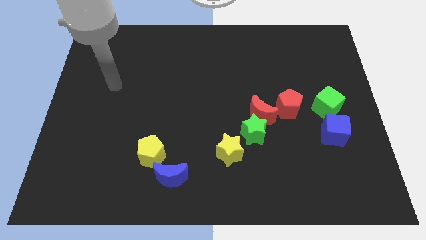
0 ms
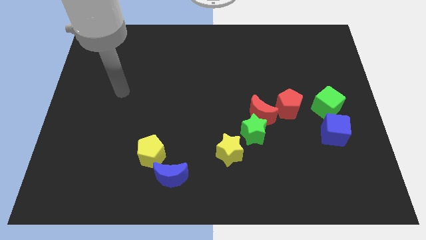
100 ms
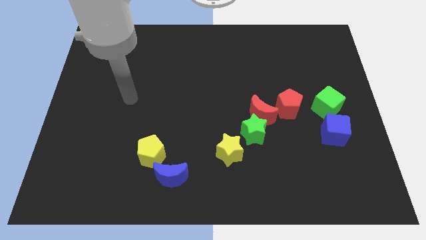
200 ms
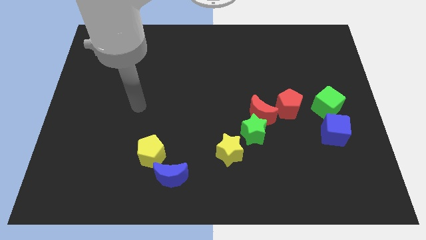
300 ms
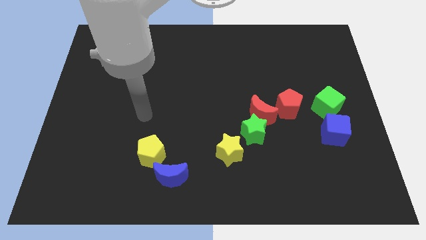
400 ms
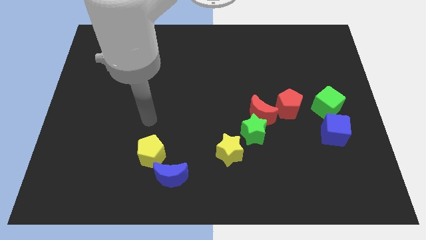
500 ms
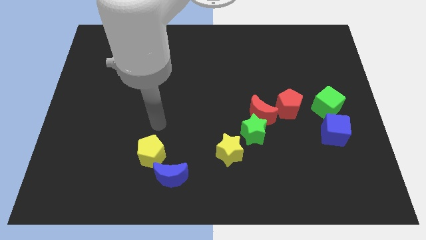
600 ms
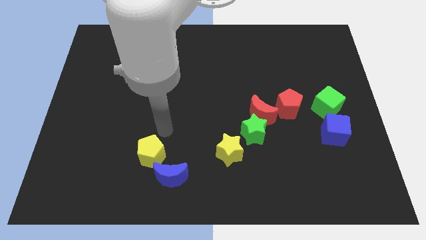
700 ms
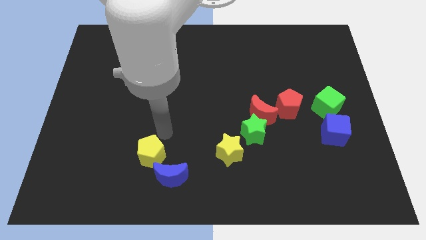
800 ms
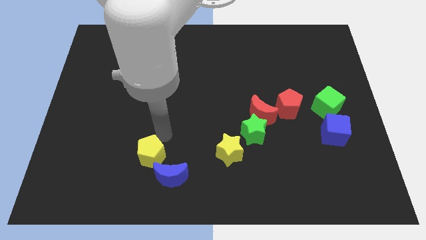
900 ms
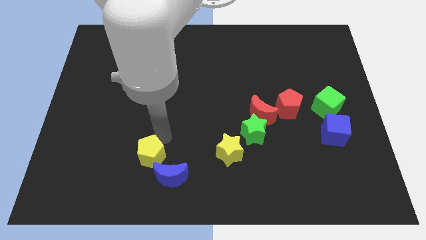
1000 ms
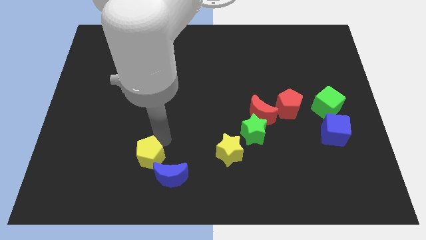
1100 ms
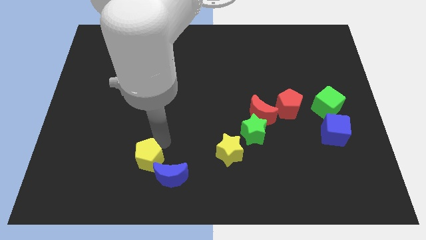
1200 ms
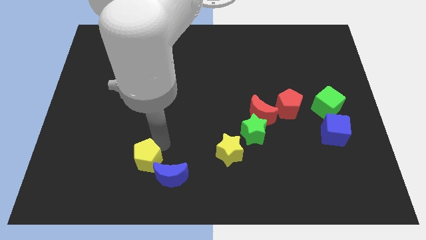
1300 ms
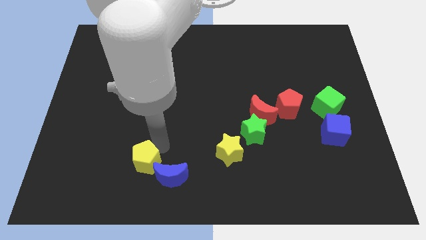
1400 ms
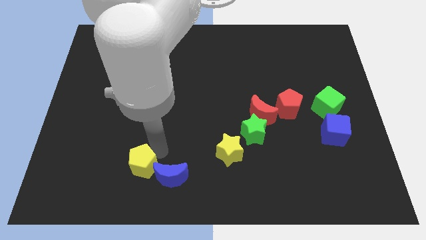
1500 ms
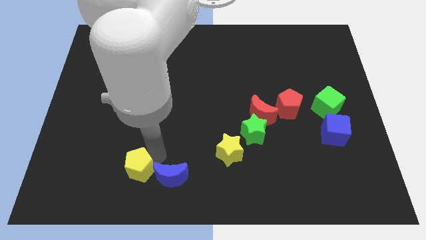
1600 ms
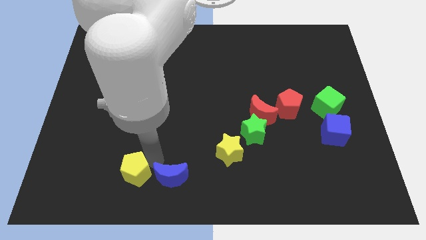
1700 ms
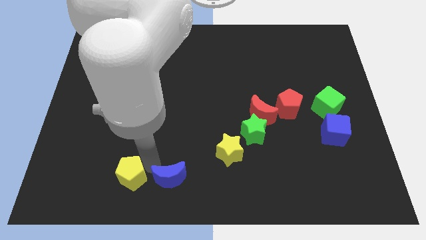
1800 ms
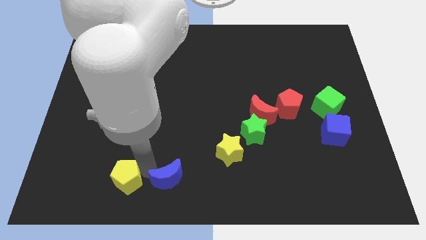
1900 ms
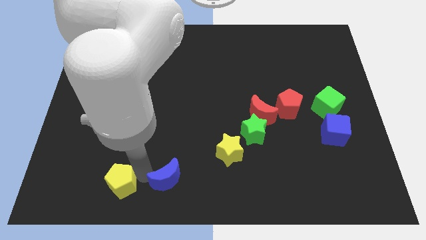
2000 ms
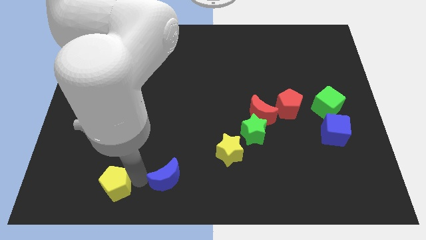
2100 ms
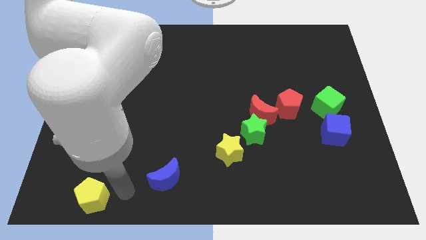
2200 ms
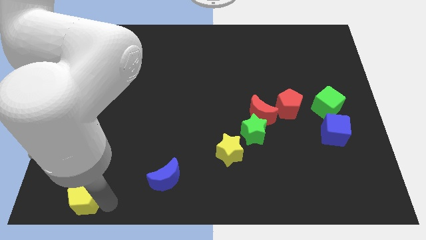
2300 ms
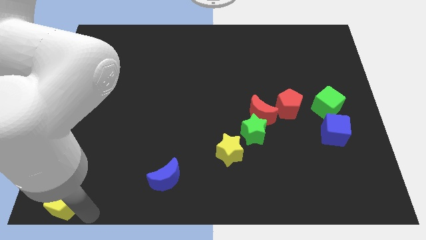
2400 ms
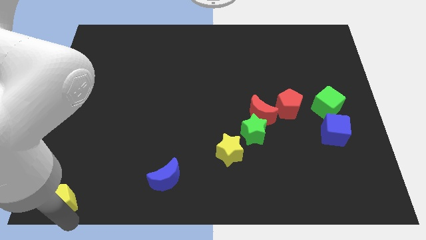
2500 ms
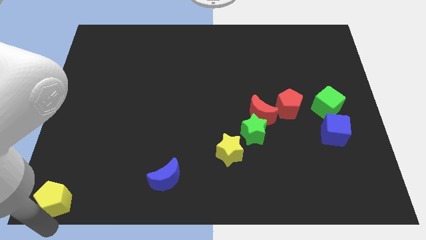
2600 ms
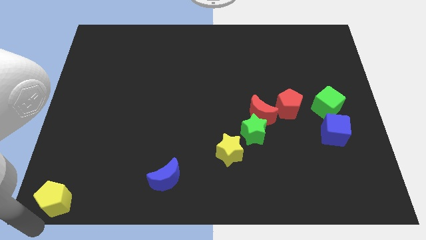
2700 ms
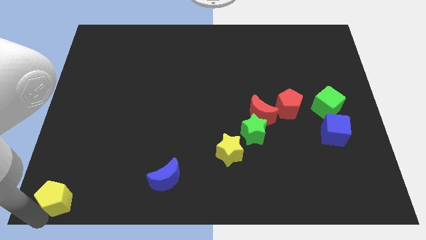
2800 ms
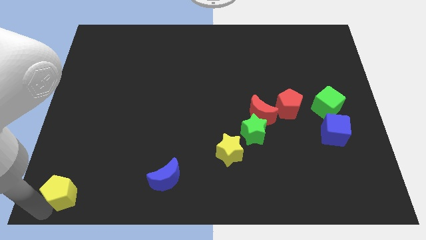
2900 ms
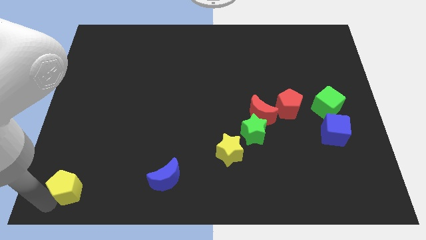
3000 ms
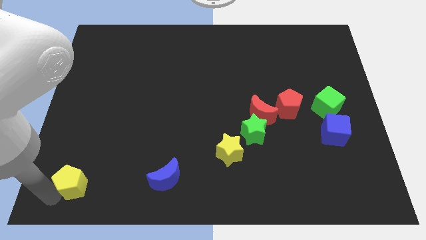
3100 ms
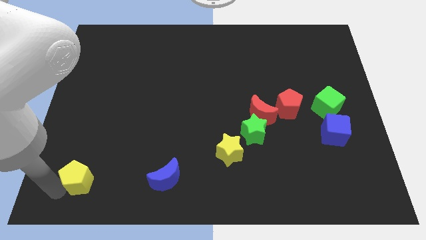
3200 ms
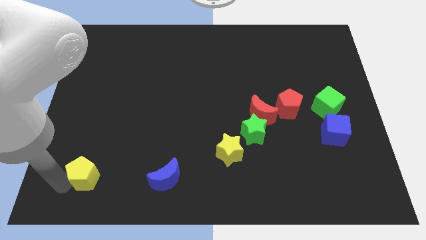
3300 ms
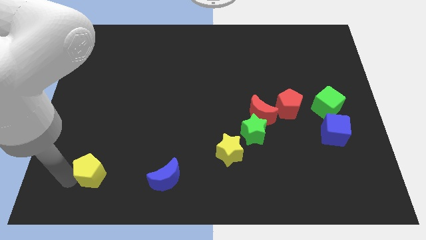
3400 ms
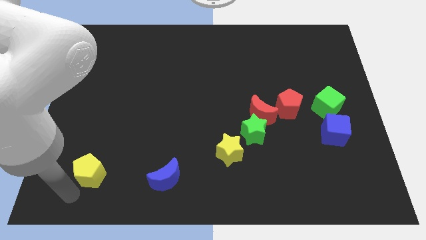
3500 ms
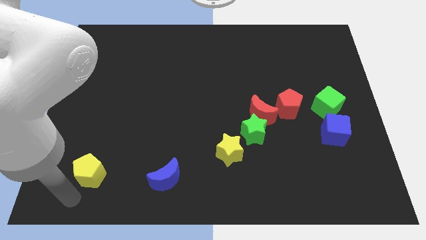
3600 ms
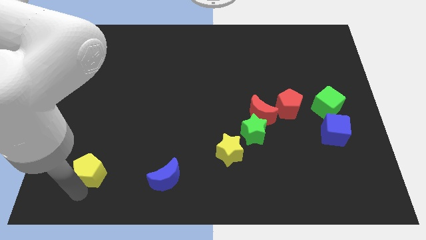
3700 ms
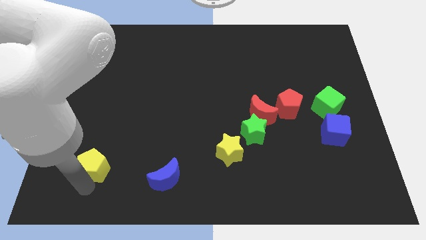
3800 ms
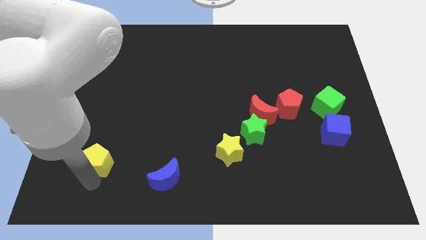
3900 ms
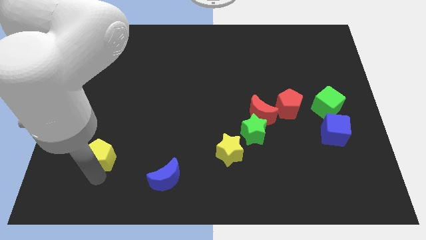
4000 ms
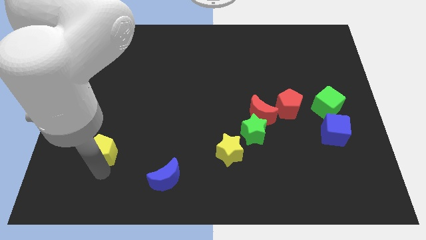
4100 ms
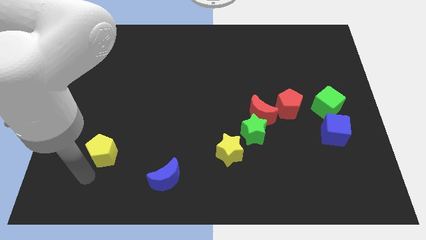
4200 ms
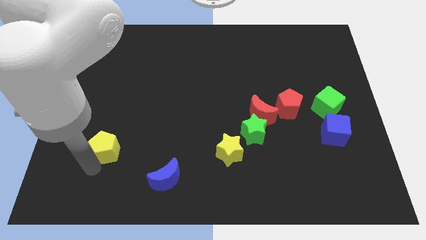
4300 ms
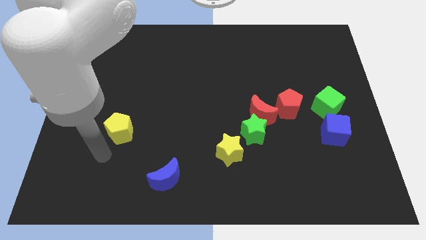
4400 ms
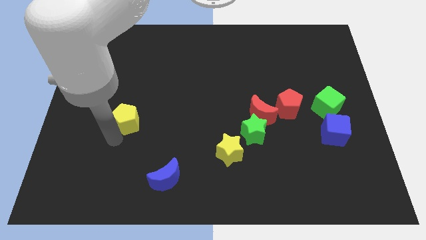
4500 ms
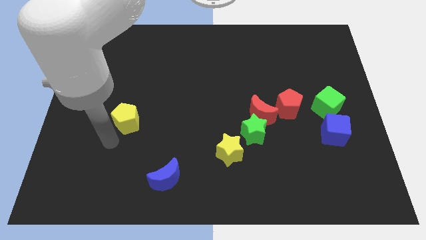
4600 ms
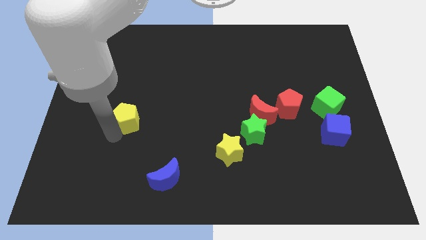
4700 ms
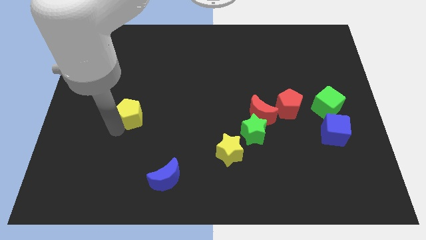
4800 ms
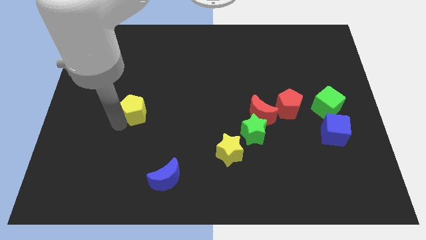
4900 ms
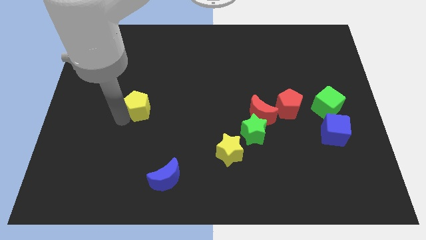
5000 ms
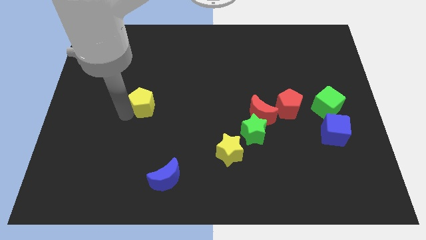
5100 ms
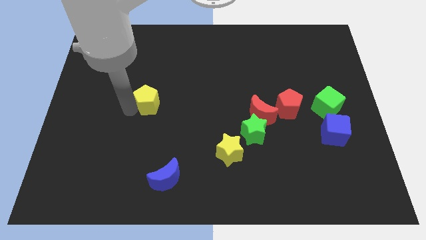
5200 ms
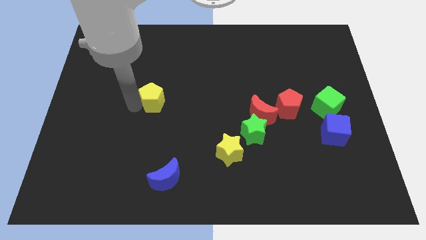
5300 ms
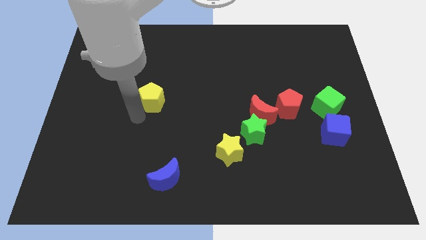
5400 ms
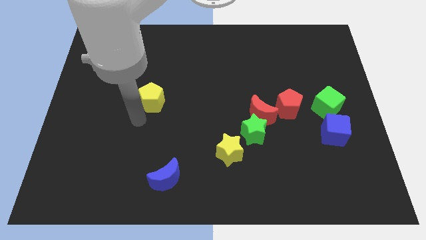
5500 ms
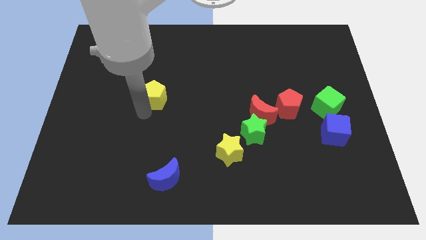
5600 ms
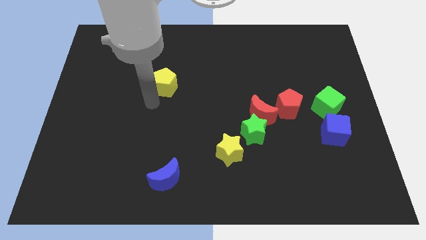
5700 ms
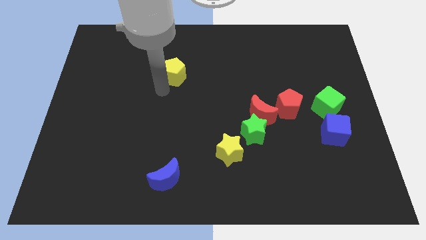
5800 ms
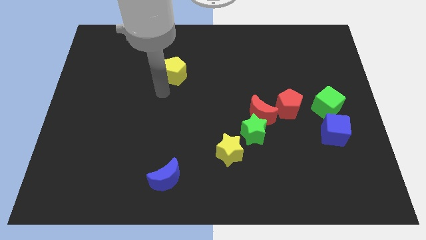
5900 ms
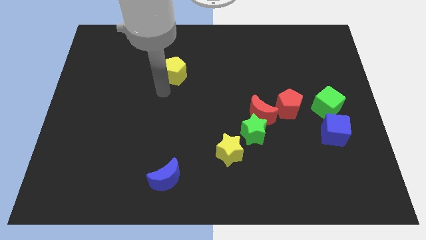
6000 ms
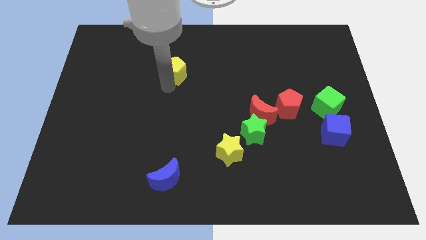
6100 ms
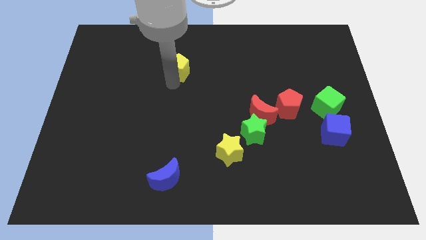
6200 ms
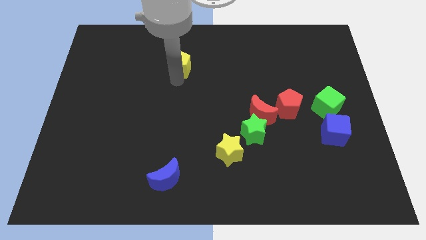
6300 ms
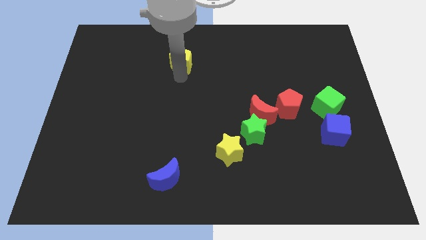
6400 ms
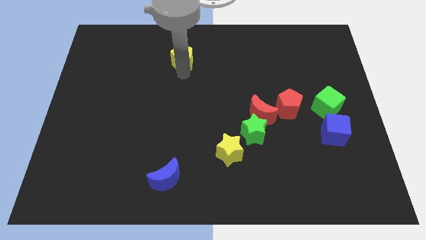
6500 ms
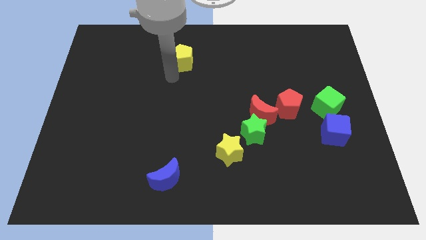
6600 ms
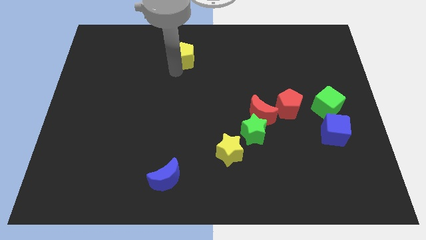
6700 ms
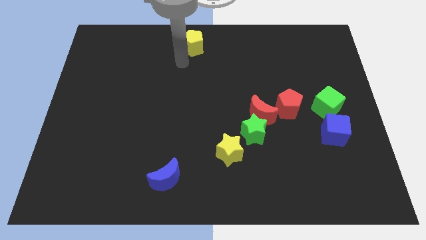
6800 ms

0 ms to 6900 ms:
move the yellow pentagon to the top side
